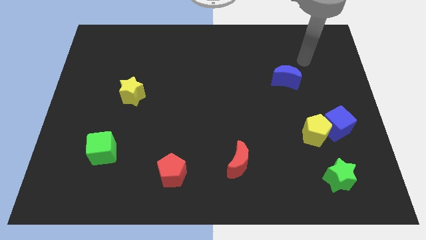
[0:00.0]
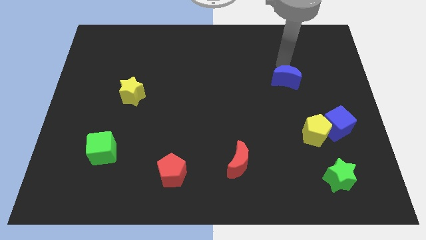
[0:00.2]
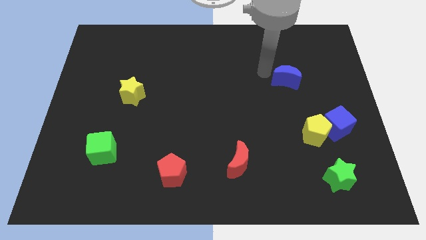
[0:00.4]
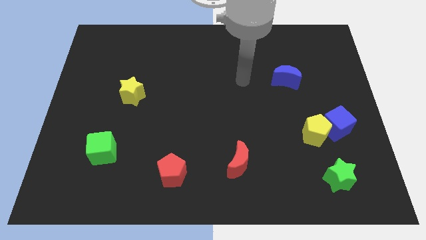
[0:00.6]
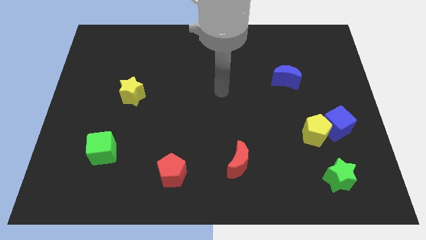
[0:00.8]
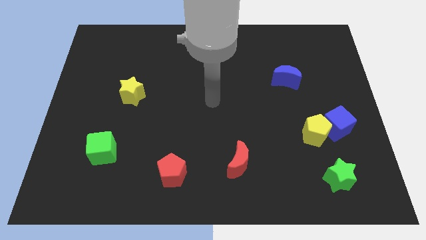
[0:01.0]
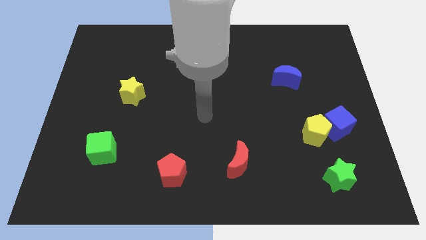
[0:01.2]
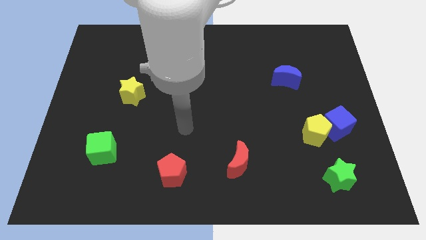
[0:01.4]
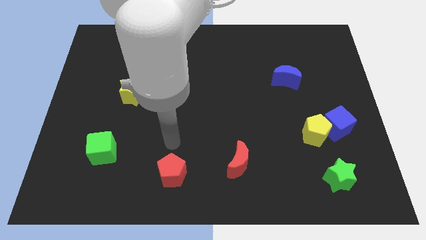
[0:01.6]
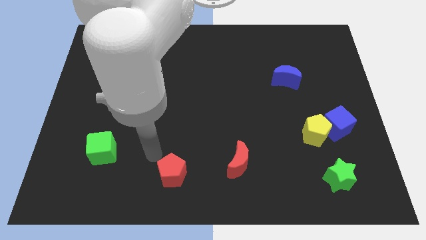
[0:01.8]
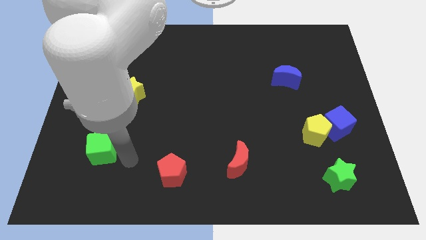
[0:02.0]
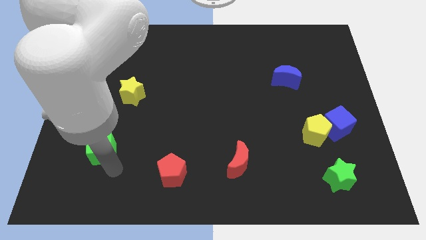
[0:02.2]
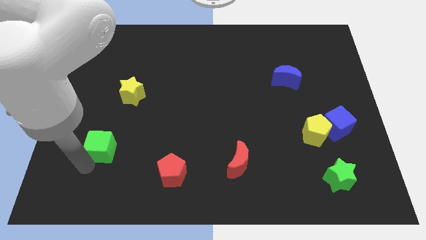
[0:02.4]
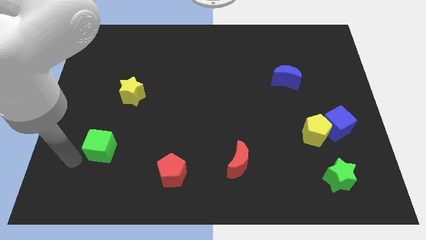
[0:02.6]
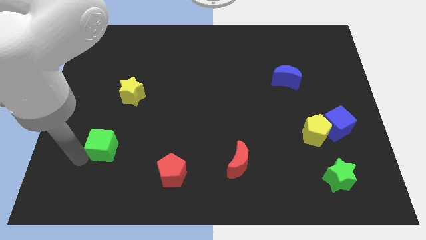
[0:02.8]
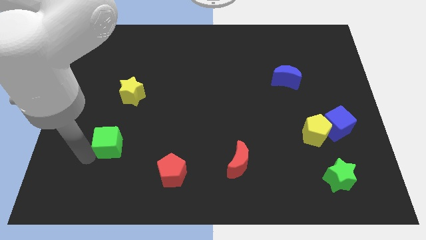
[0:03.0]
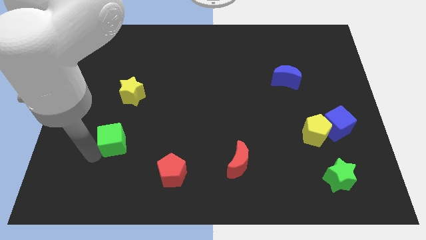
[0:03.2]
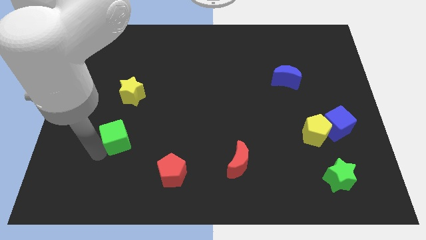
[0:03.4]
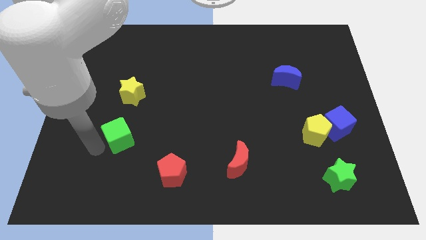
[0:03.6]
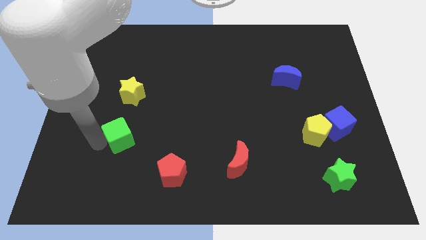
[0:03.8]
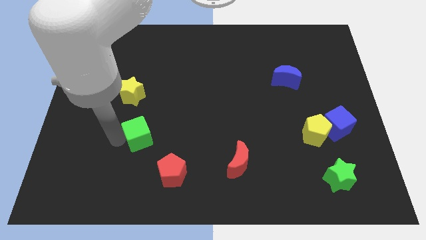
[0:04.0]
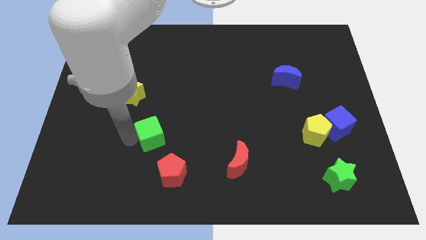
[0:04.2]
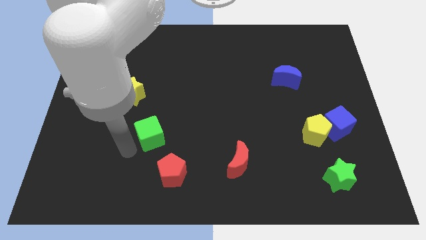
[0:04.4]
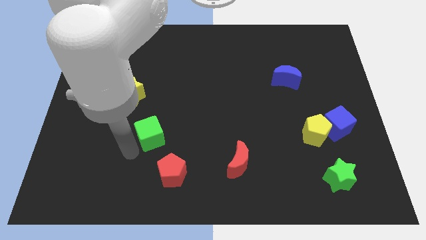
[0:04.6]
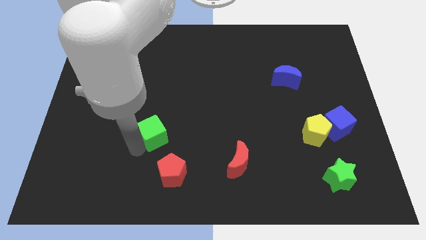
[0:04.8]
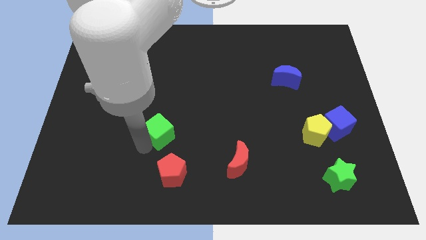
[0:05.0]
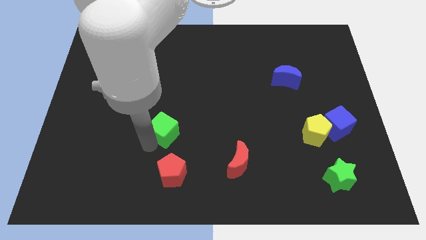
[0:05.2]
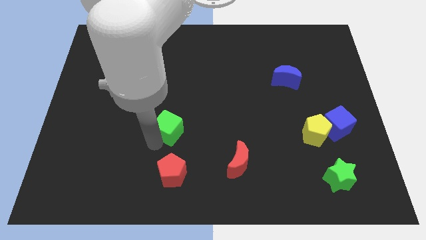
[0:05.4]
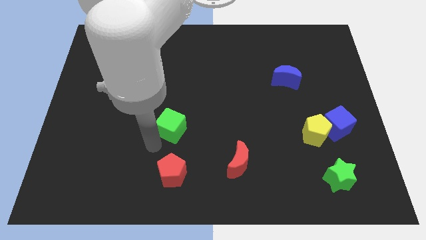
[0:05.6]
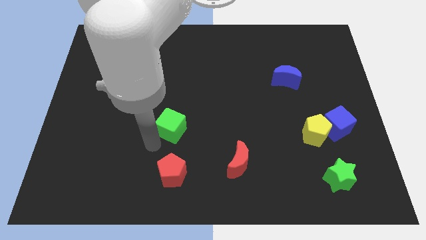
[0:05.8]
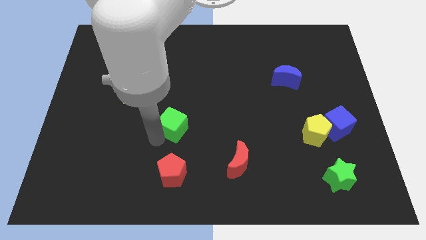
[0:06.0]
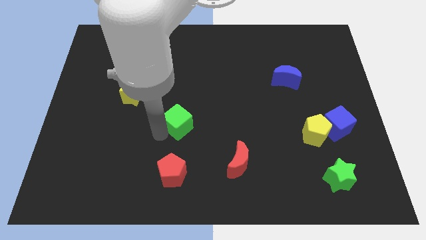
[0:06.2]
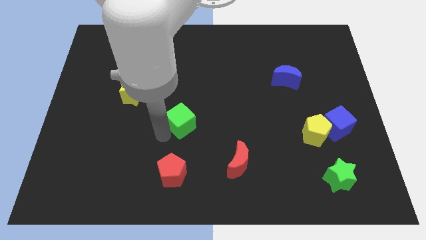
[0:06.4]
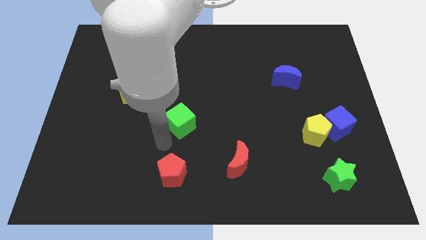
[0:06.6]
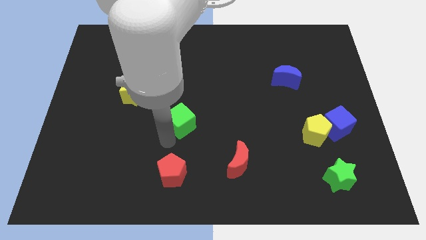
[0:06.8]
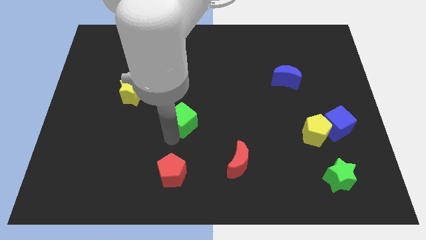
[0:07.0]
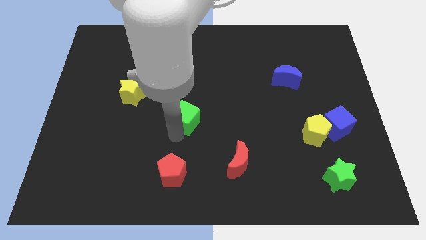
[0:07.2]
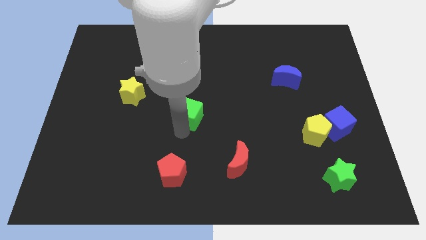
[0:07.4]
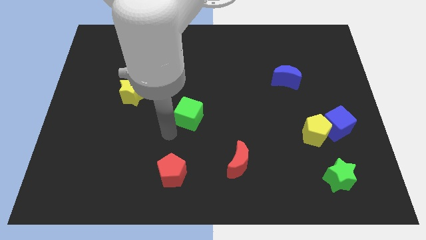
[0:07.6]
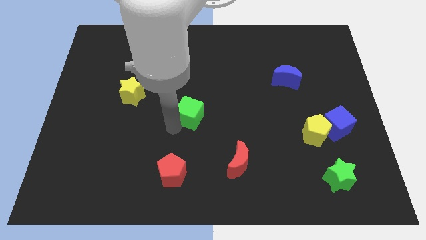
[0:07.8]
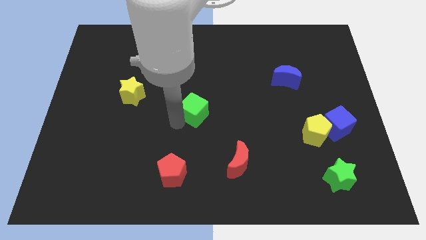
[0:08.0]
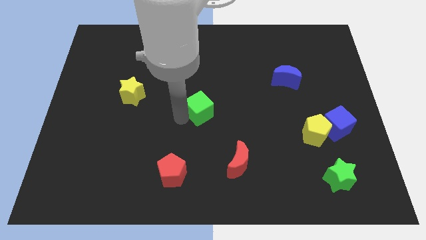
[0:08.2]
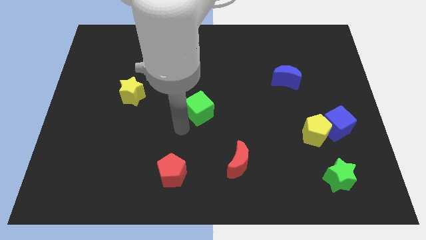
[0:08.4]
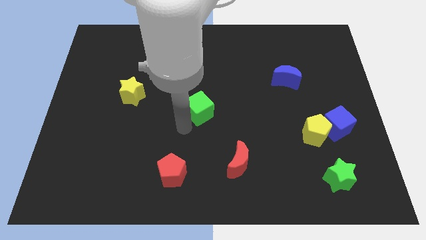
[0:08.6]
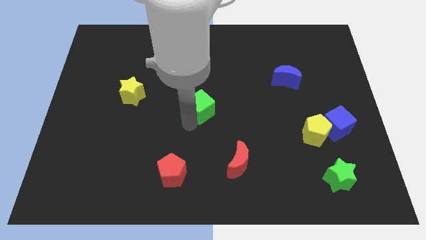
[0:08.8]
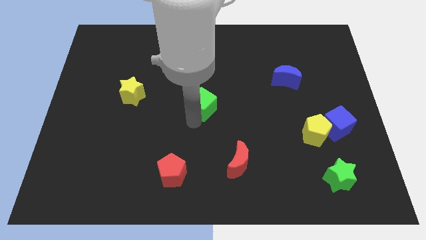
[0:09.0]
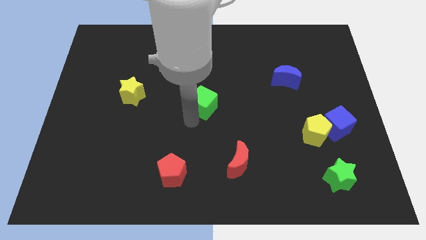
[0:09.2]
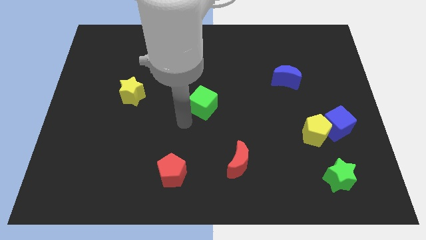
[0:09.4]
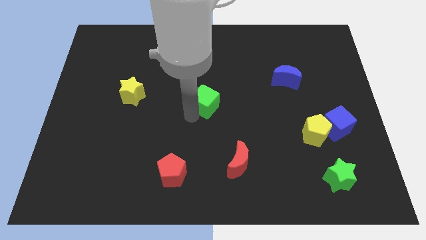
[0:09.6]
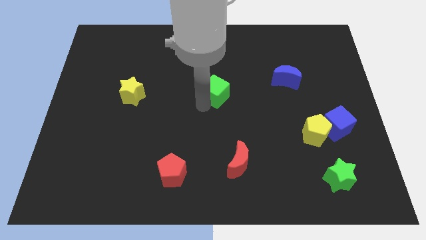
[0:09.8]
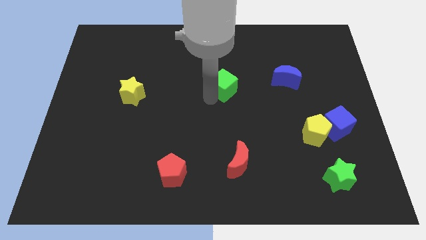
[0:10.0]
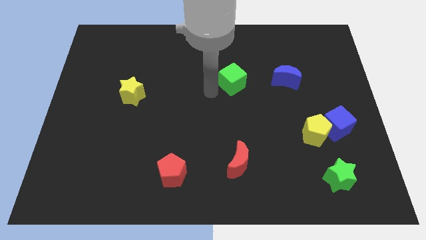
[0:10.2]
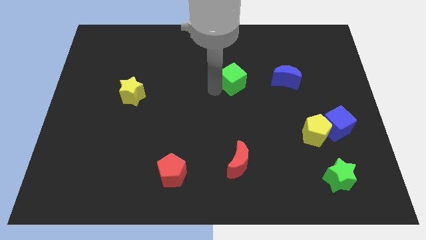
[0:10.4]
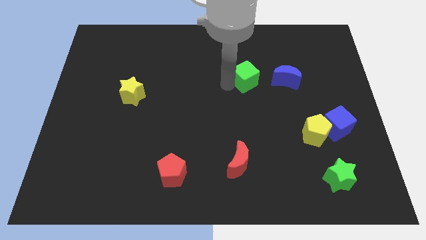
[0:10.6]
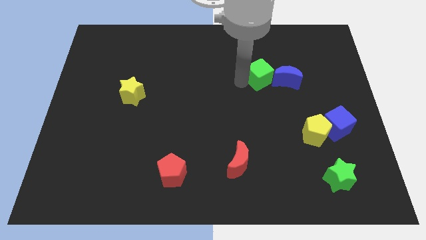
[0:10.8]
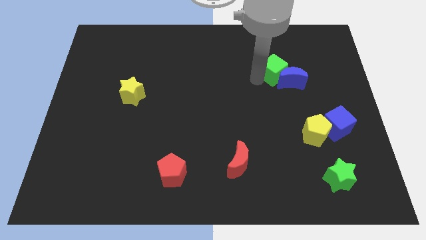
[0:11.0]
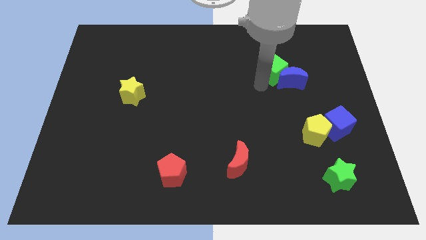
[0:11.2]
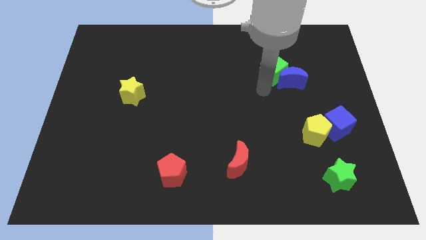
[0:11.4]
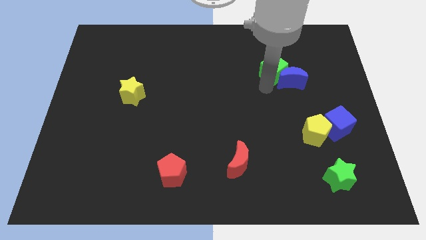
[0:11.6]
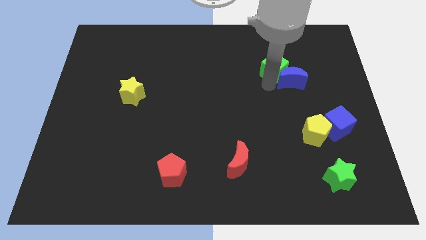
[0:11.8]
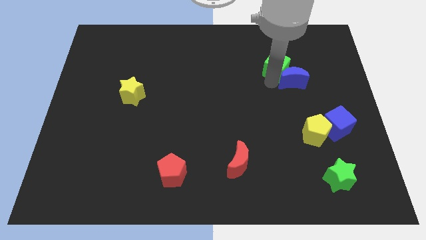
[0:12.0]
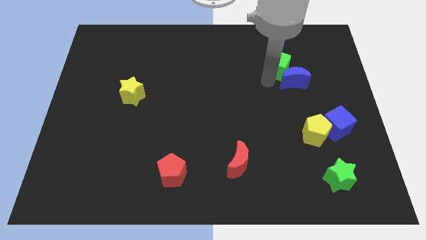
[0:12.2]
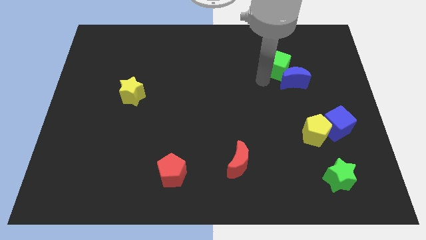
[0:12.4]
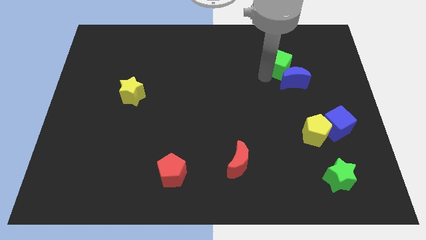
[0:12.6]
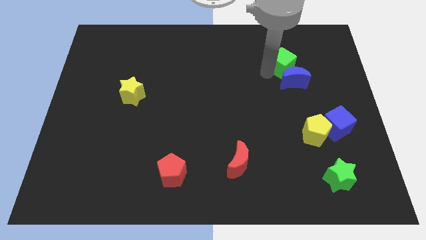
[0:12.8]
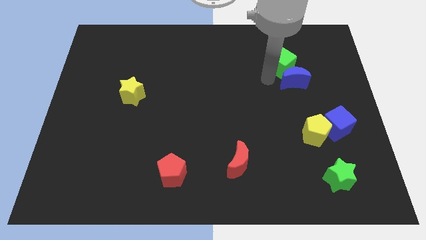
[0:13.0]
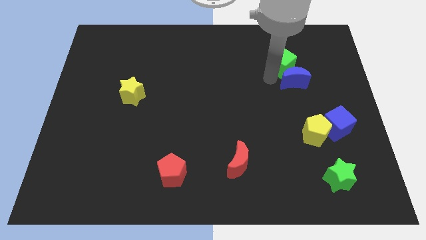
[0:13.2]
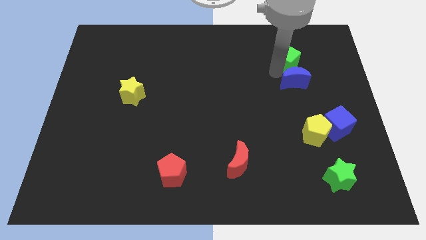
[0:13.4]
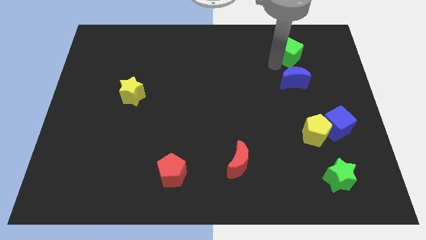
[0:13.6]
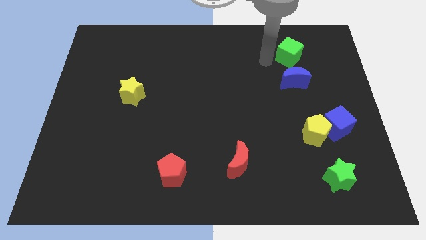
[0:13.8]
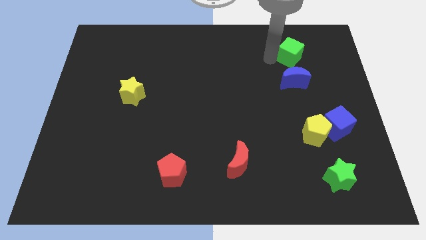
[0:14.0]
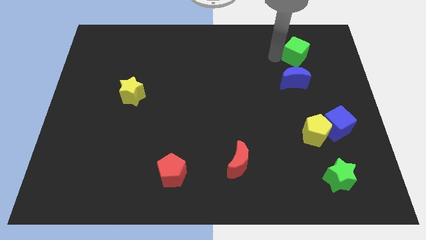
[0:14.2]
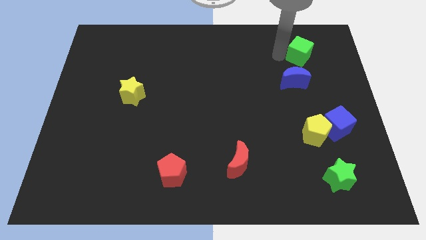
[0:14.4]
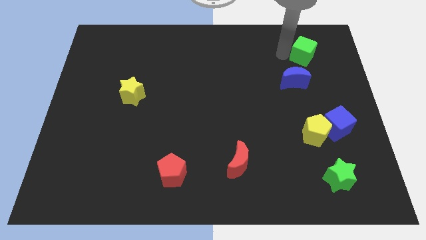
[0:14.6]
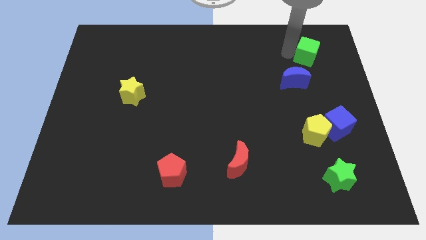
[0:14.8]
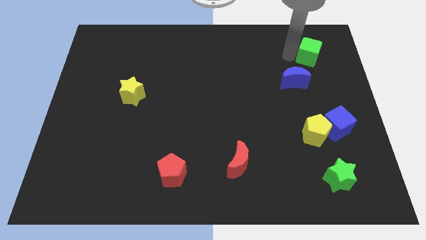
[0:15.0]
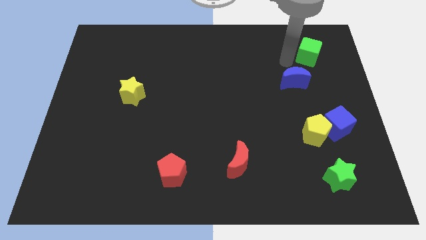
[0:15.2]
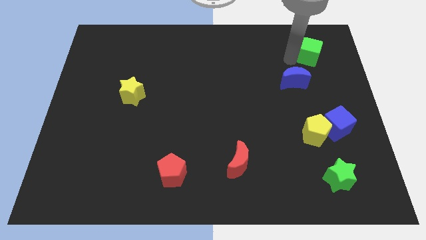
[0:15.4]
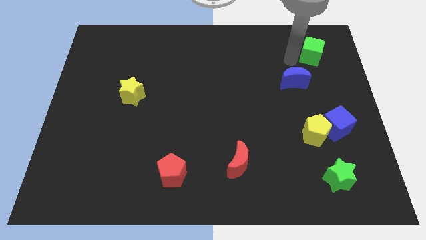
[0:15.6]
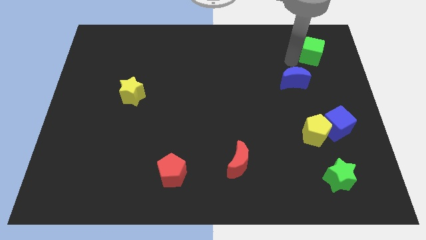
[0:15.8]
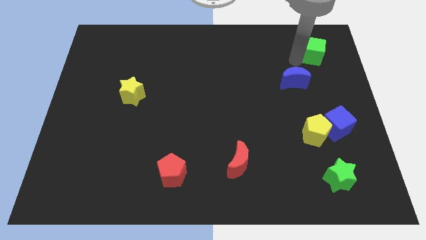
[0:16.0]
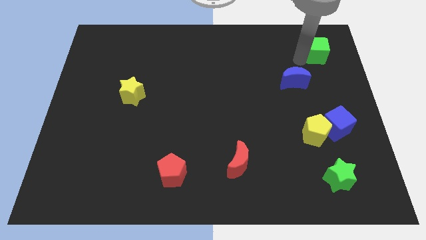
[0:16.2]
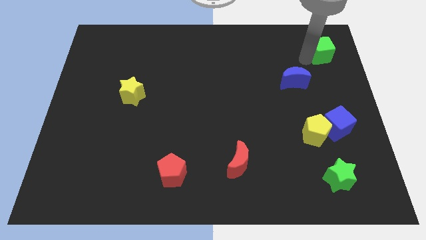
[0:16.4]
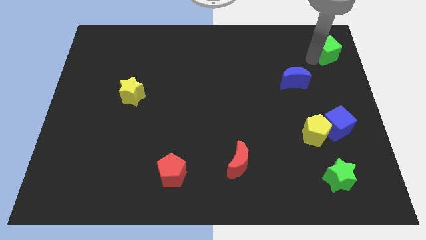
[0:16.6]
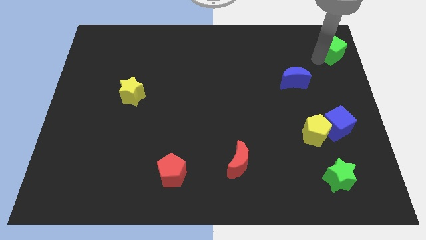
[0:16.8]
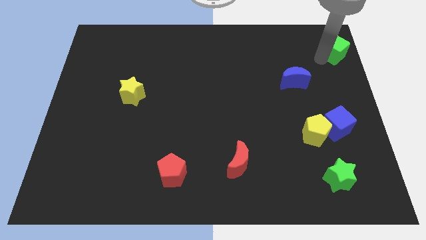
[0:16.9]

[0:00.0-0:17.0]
push the green cube to the top right corner
